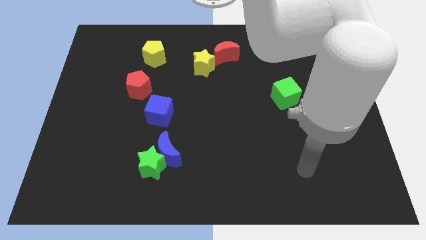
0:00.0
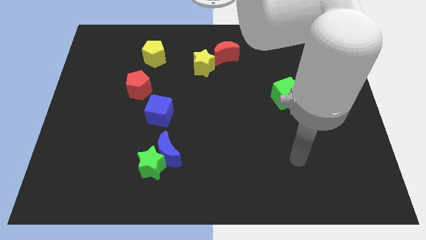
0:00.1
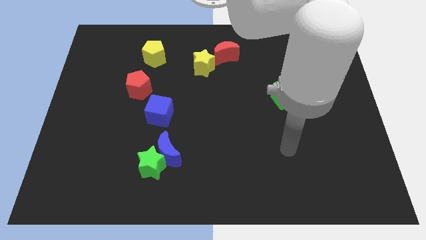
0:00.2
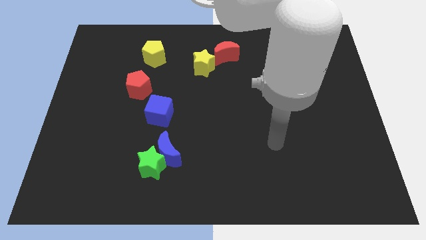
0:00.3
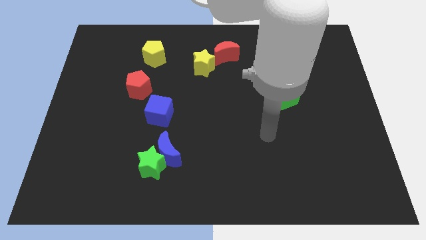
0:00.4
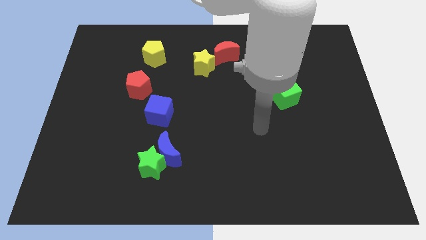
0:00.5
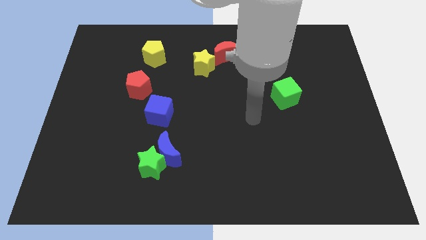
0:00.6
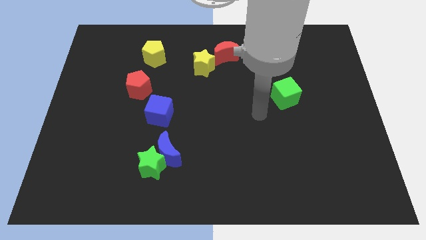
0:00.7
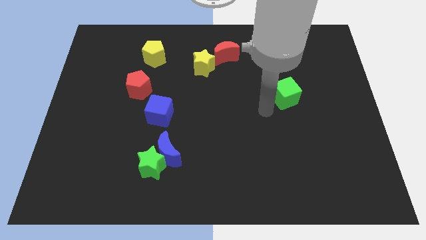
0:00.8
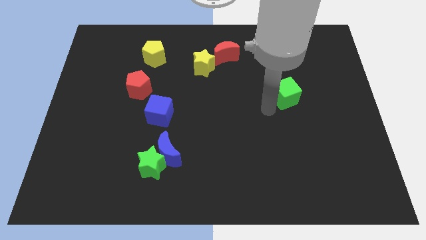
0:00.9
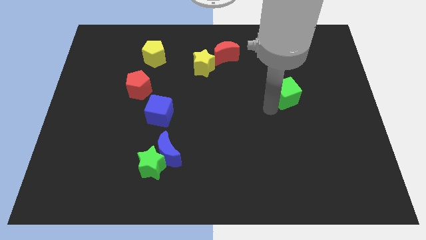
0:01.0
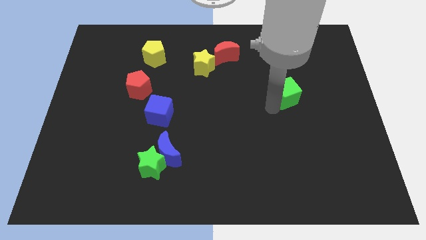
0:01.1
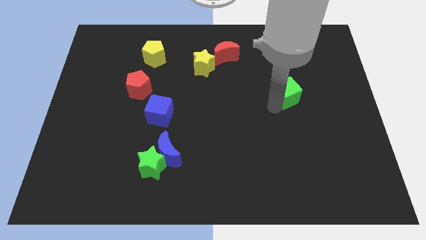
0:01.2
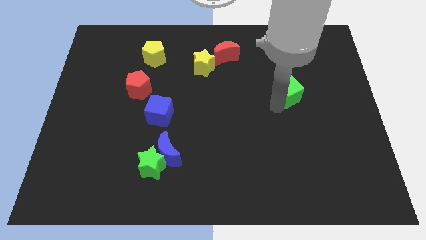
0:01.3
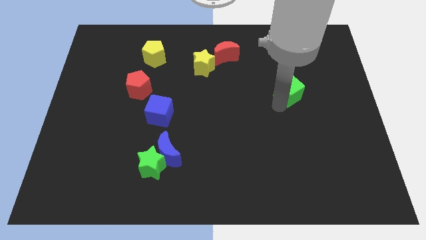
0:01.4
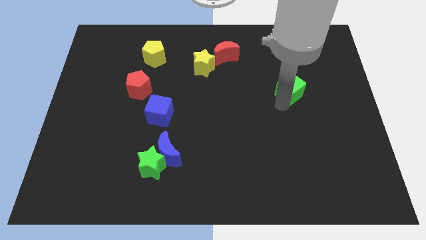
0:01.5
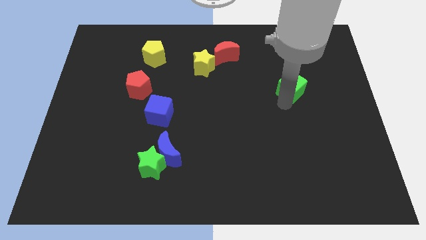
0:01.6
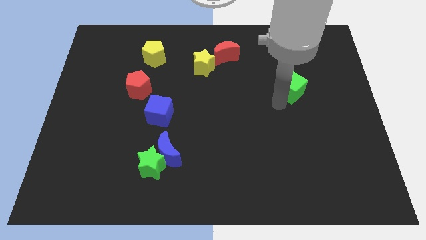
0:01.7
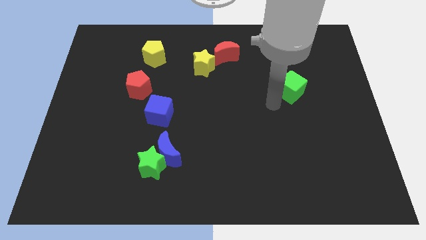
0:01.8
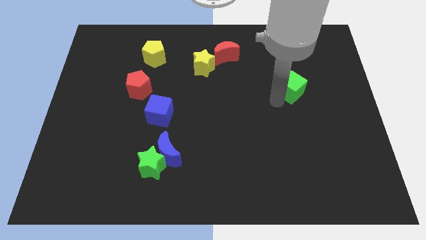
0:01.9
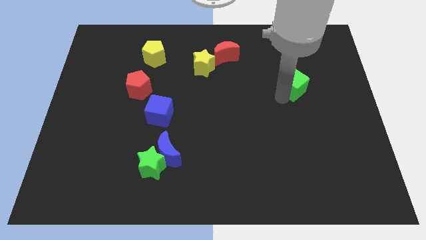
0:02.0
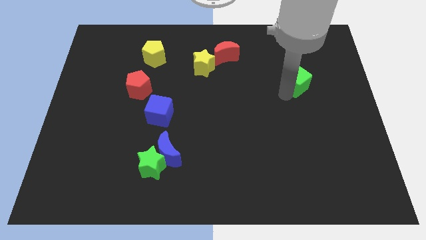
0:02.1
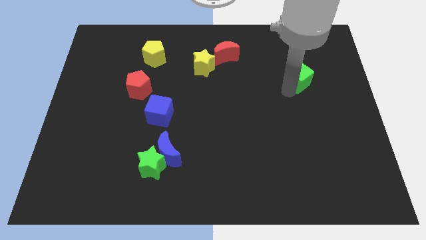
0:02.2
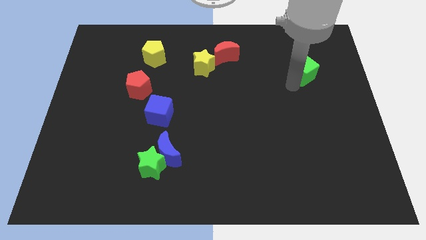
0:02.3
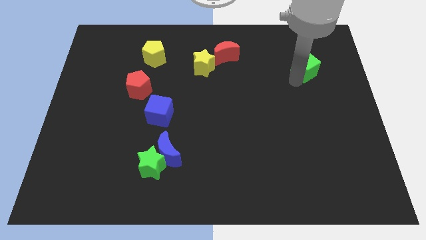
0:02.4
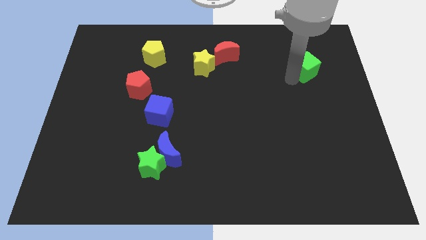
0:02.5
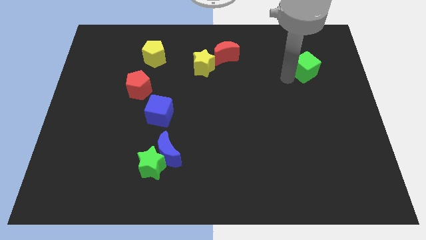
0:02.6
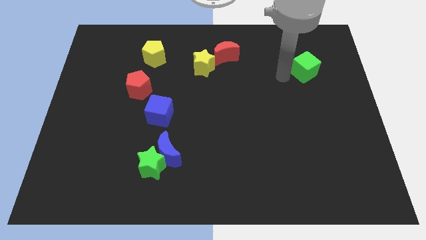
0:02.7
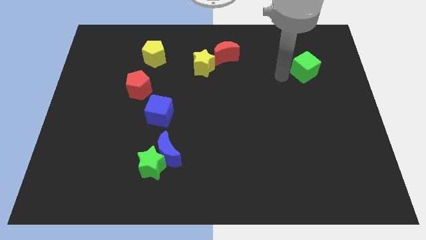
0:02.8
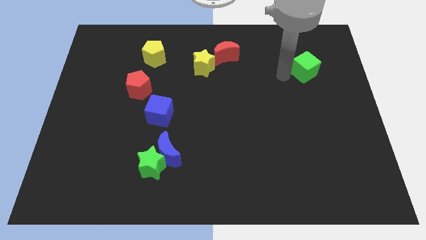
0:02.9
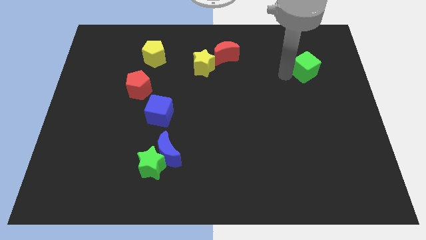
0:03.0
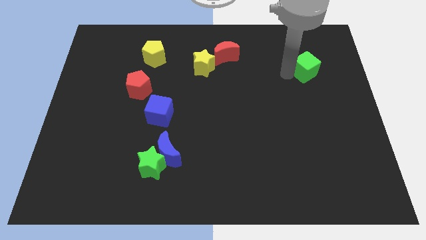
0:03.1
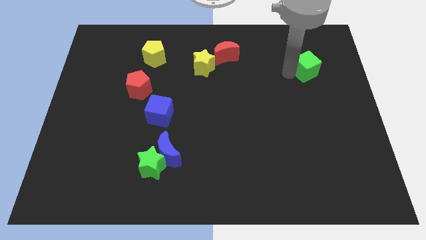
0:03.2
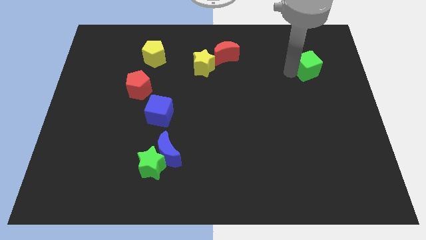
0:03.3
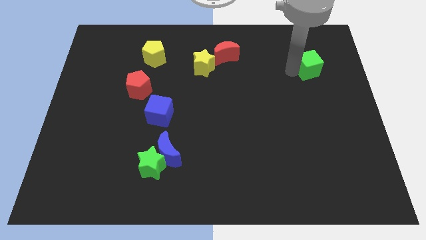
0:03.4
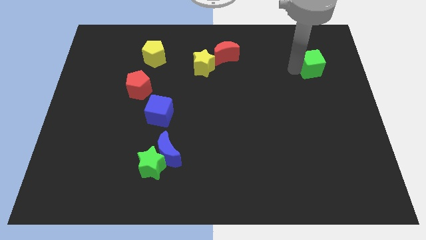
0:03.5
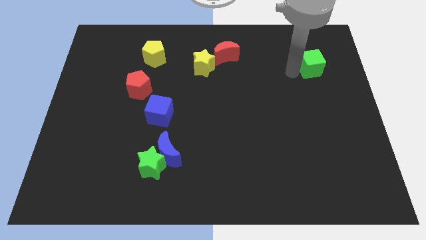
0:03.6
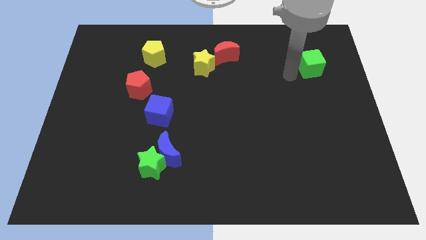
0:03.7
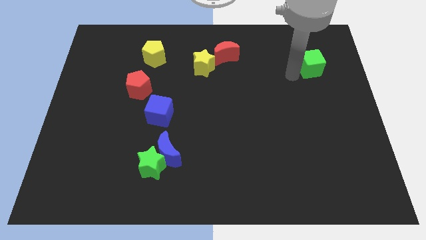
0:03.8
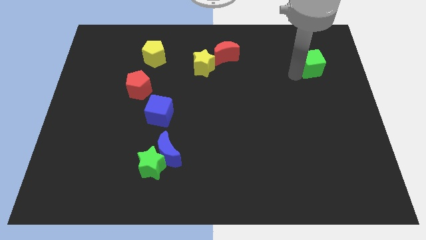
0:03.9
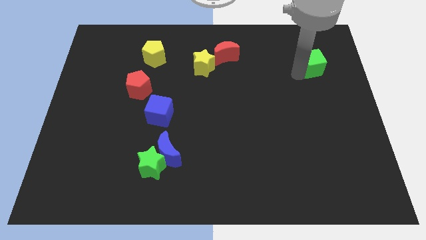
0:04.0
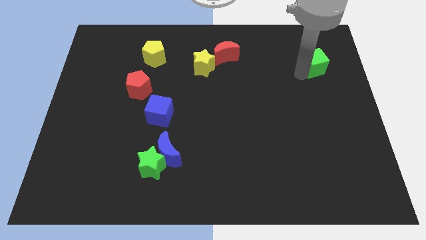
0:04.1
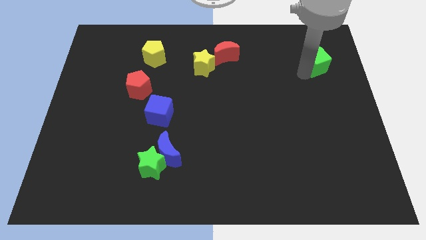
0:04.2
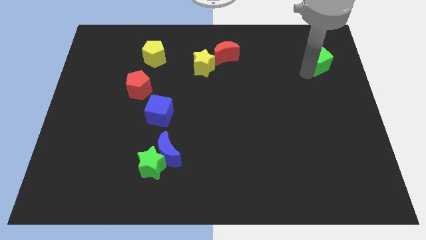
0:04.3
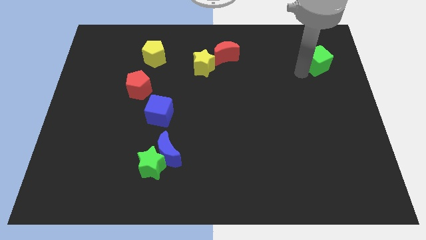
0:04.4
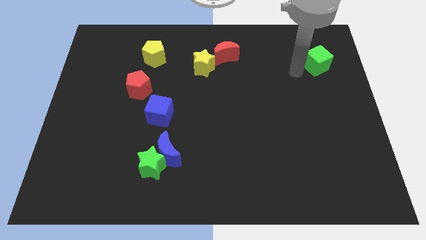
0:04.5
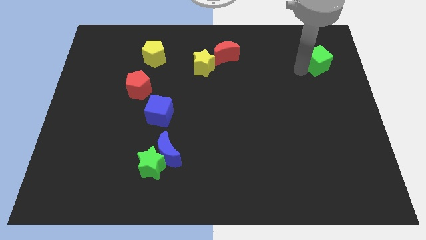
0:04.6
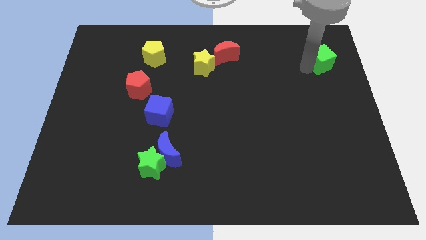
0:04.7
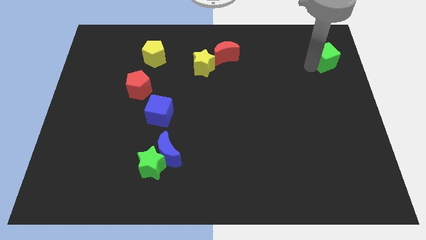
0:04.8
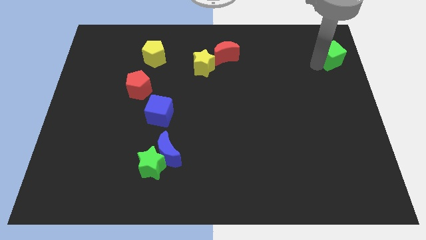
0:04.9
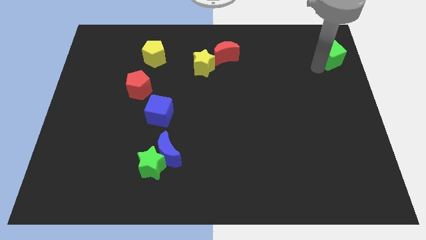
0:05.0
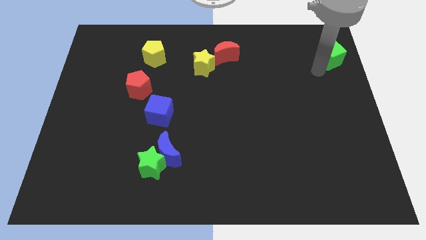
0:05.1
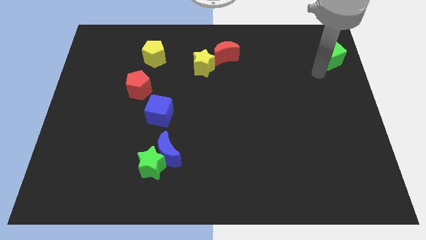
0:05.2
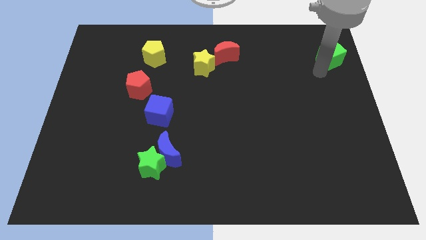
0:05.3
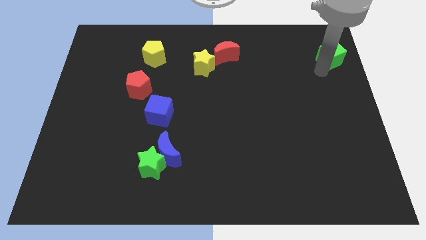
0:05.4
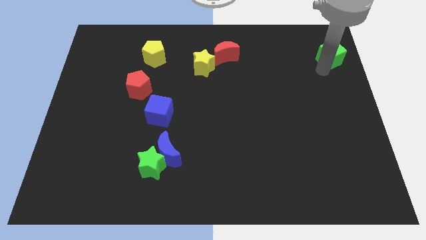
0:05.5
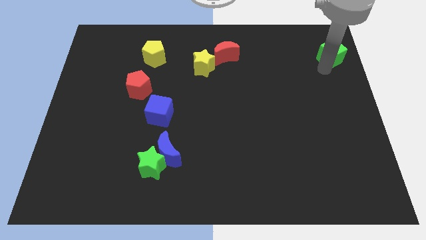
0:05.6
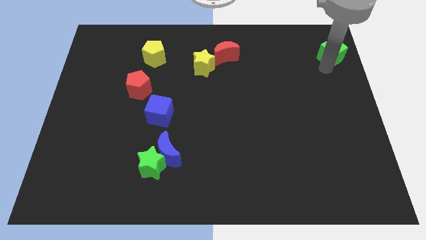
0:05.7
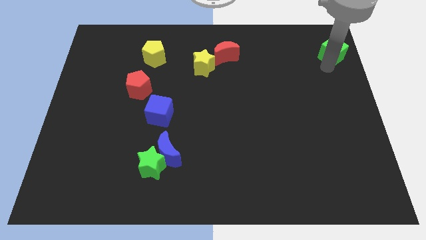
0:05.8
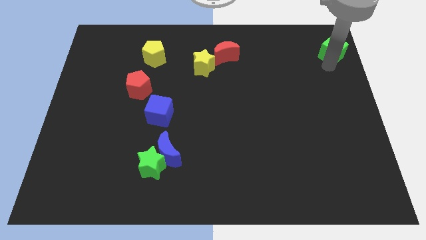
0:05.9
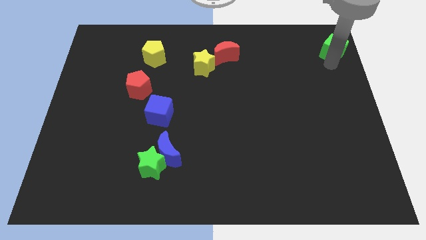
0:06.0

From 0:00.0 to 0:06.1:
move the green cube to the top right corner

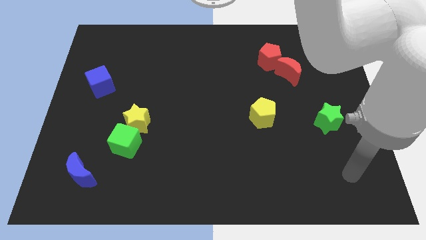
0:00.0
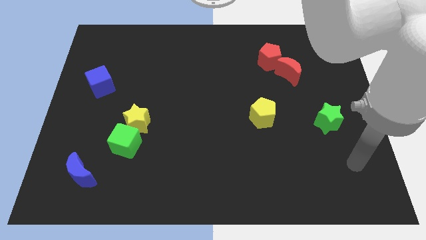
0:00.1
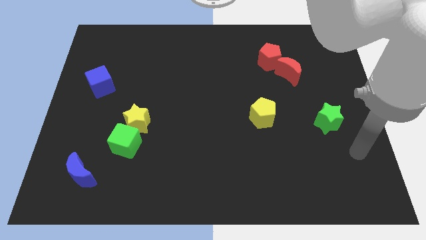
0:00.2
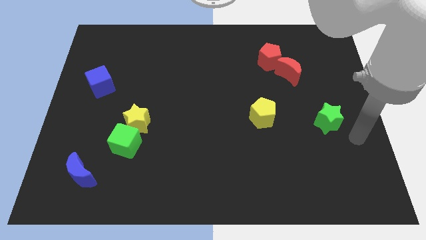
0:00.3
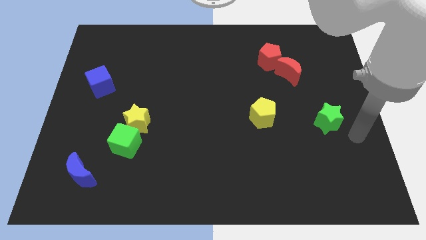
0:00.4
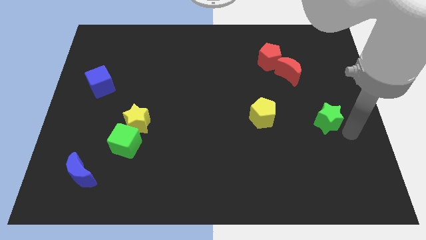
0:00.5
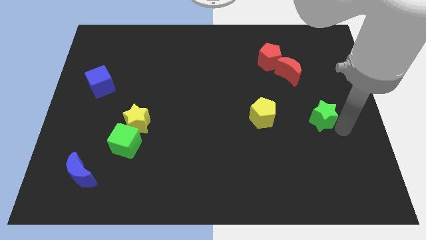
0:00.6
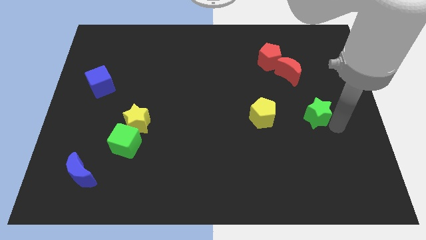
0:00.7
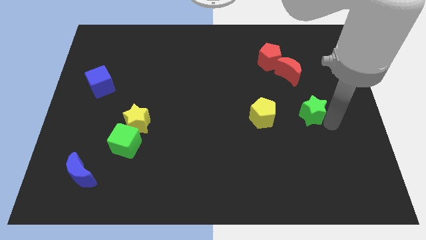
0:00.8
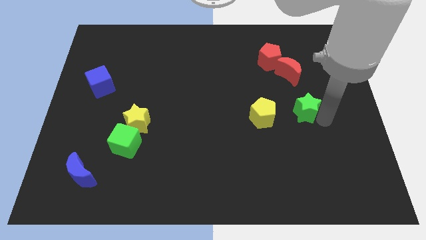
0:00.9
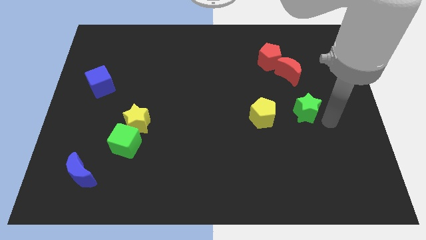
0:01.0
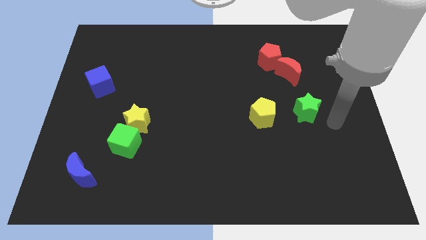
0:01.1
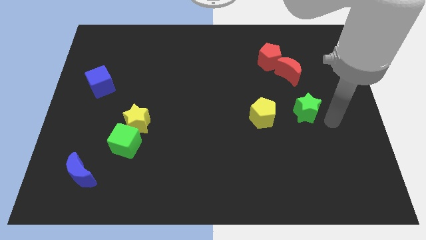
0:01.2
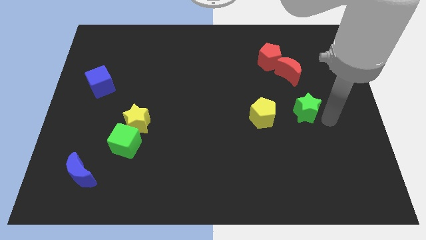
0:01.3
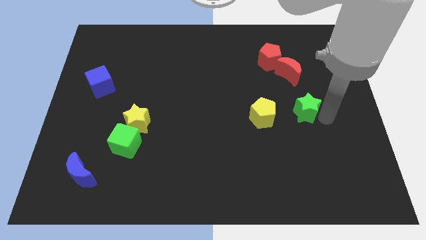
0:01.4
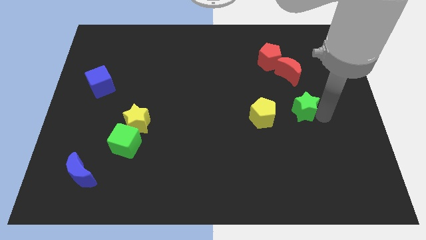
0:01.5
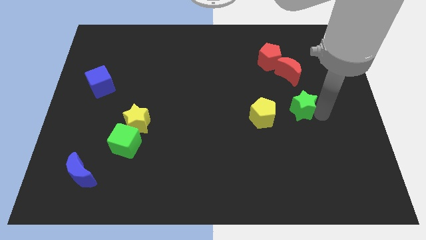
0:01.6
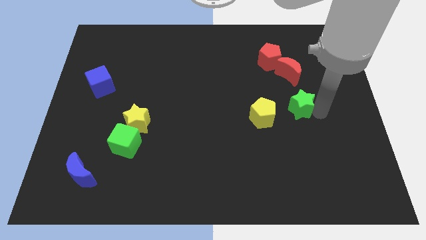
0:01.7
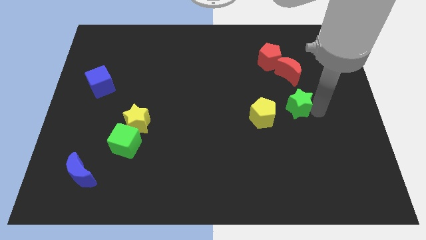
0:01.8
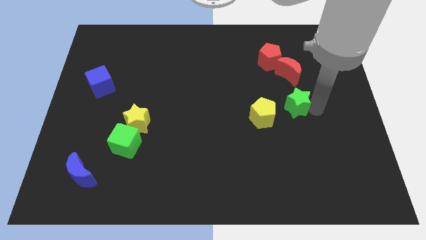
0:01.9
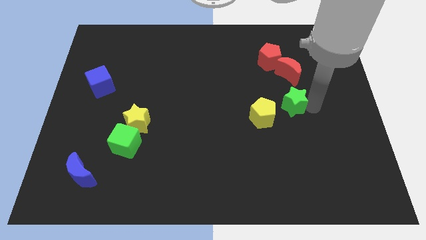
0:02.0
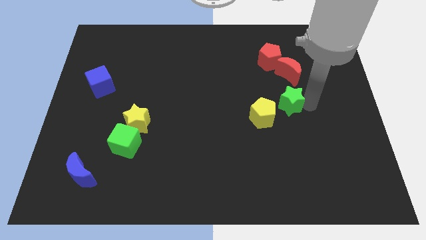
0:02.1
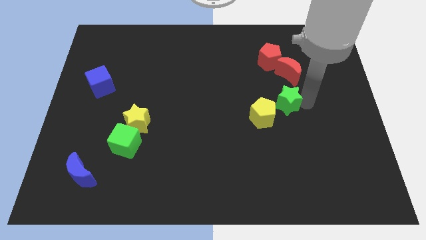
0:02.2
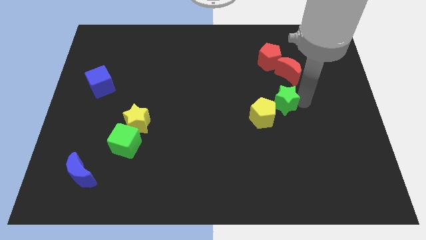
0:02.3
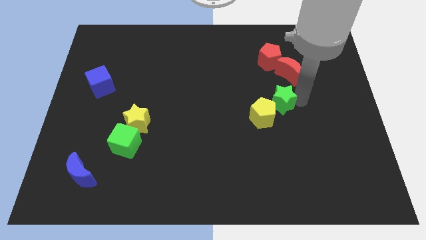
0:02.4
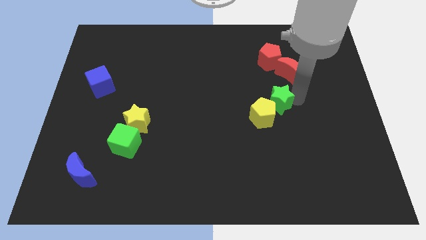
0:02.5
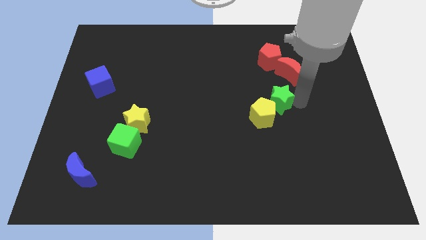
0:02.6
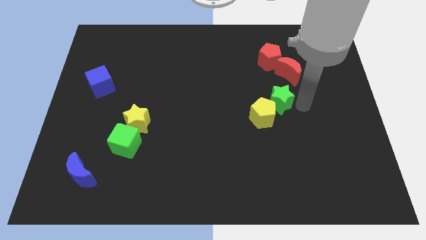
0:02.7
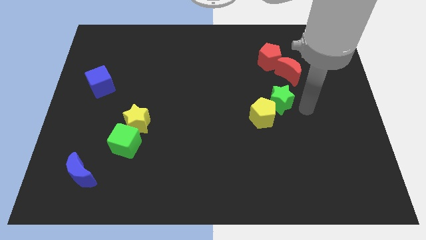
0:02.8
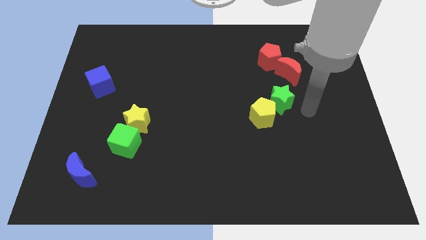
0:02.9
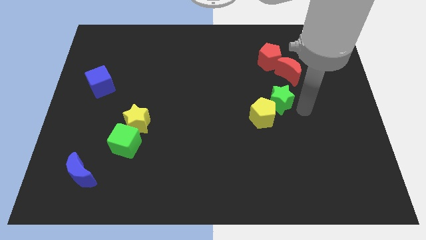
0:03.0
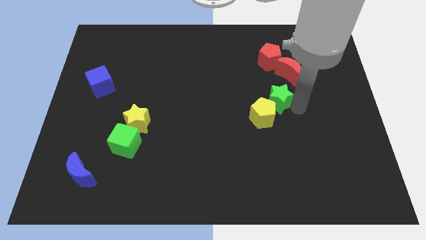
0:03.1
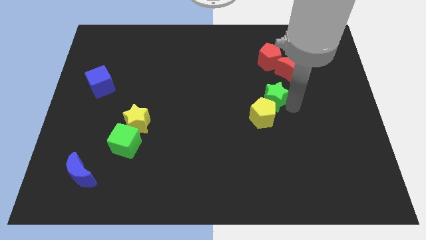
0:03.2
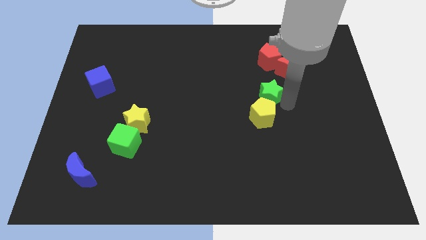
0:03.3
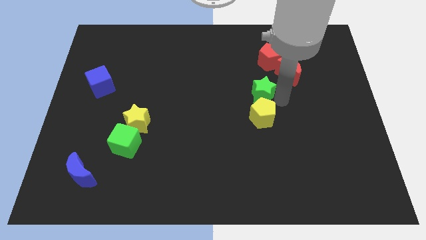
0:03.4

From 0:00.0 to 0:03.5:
slide the green star to the middle
